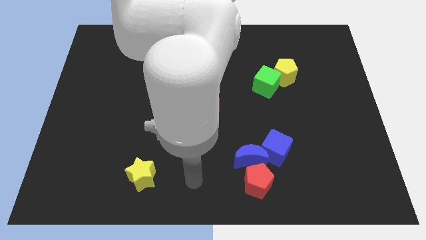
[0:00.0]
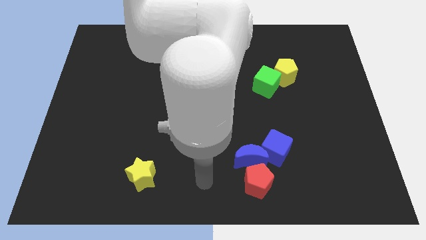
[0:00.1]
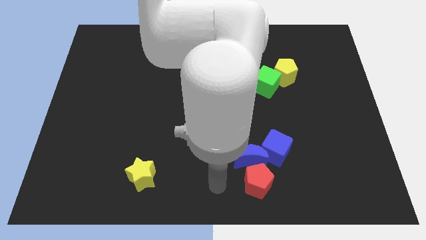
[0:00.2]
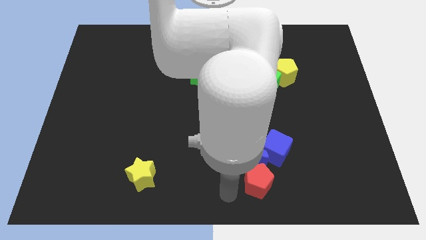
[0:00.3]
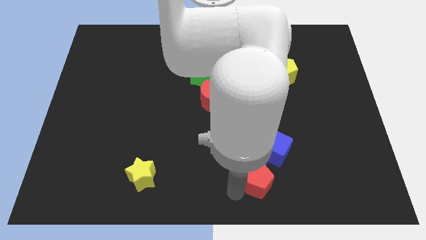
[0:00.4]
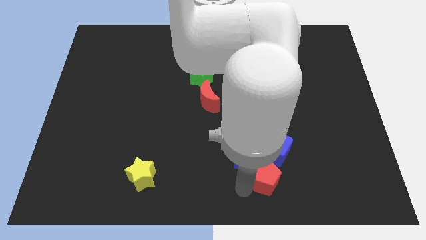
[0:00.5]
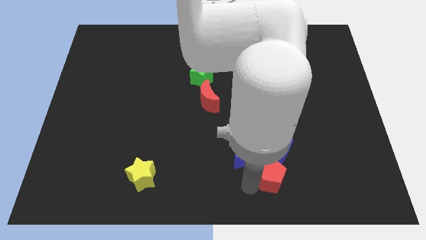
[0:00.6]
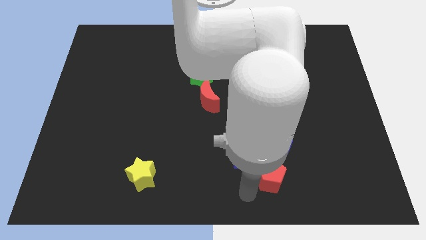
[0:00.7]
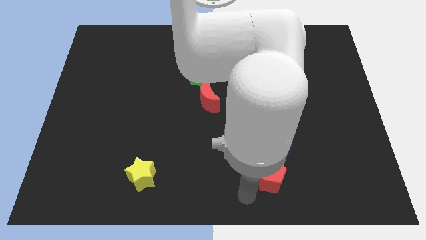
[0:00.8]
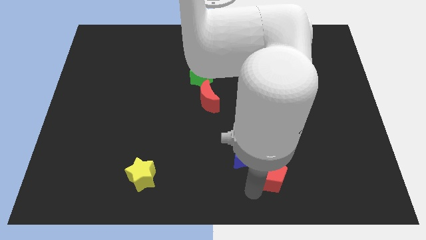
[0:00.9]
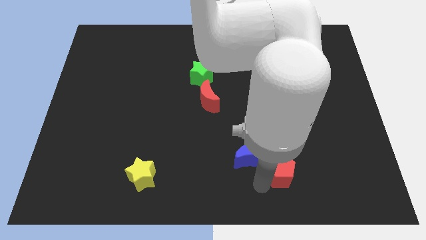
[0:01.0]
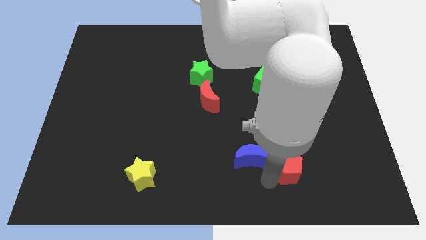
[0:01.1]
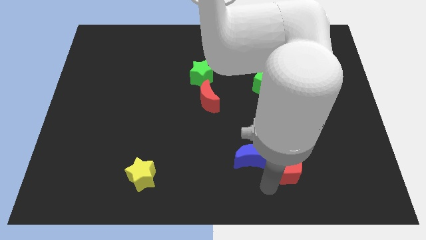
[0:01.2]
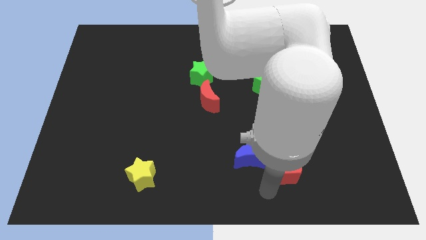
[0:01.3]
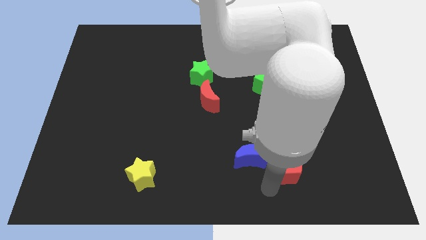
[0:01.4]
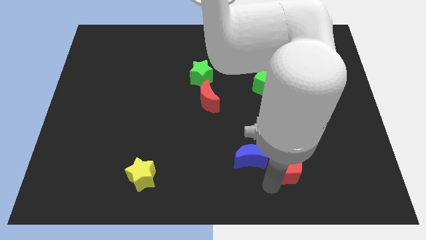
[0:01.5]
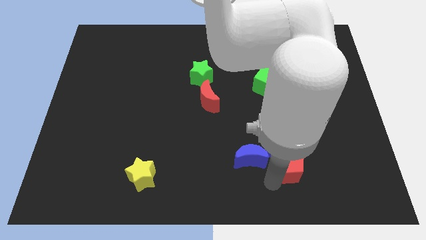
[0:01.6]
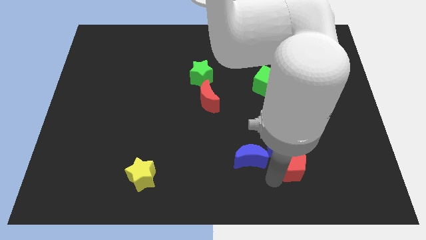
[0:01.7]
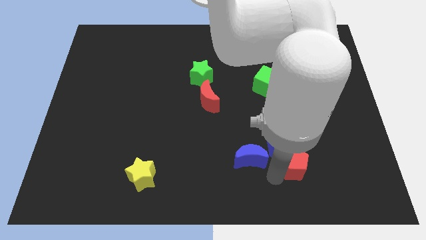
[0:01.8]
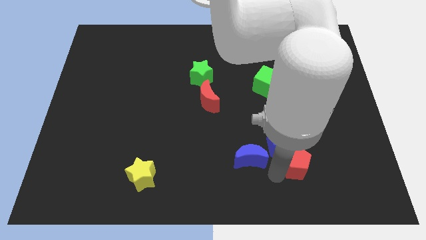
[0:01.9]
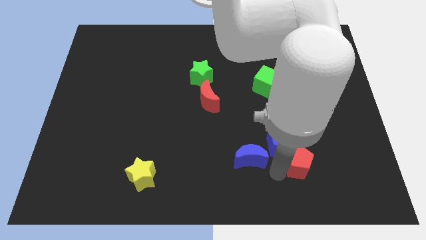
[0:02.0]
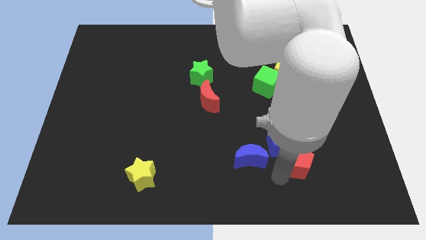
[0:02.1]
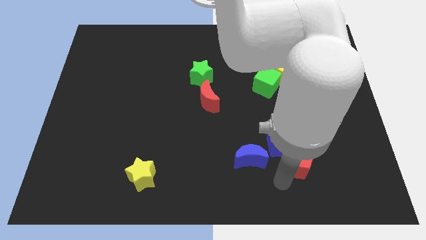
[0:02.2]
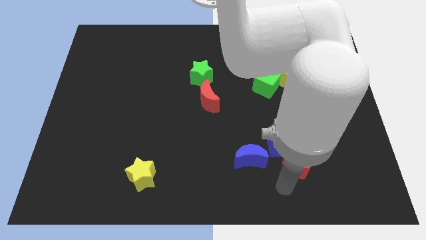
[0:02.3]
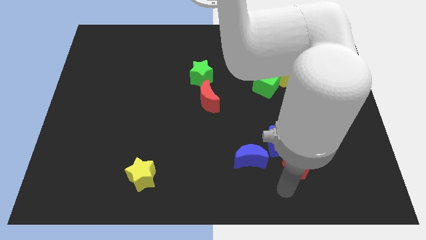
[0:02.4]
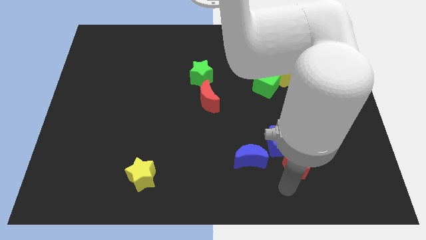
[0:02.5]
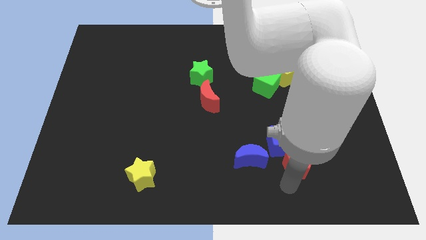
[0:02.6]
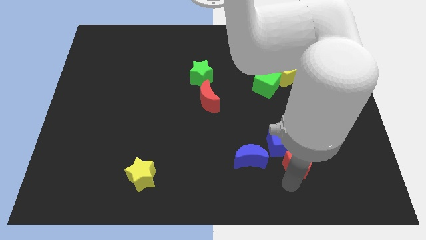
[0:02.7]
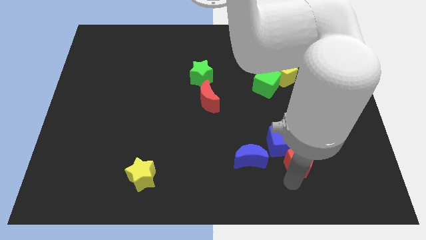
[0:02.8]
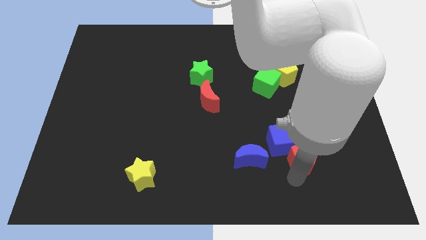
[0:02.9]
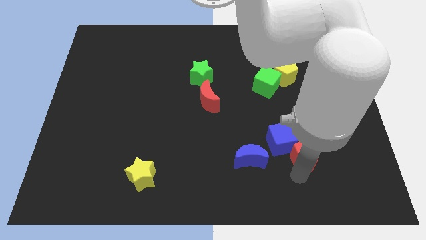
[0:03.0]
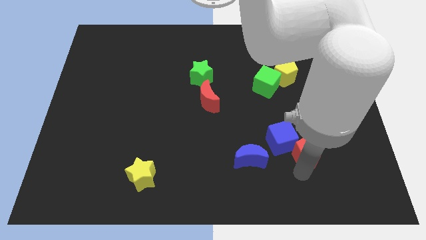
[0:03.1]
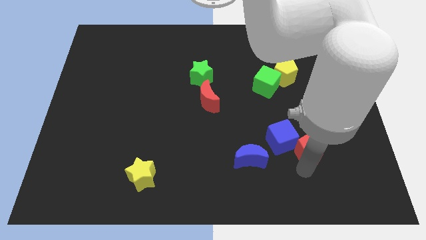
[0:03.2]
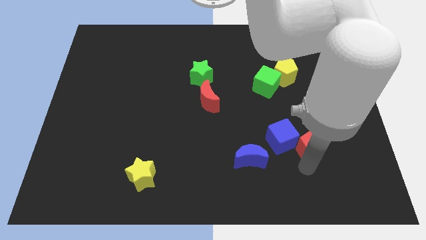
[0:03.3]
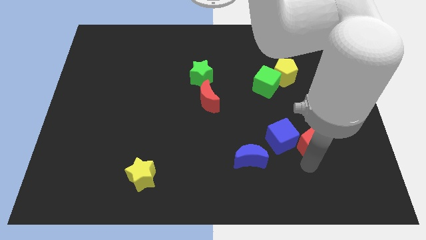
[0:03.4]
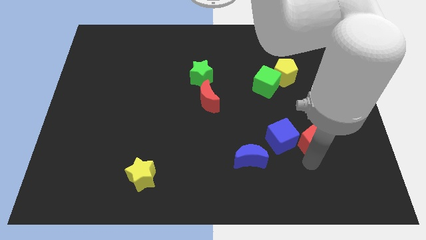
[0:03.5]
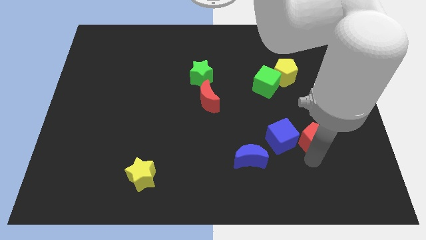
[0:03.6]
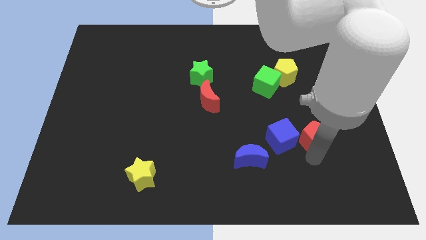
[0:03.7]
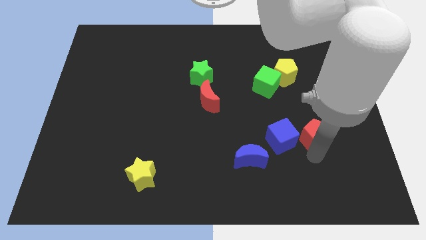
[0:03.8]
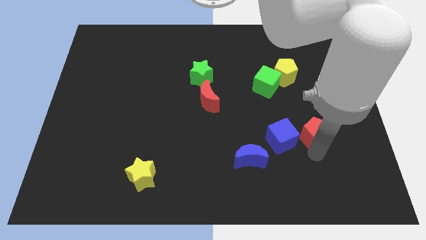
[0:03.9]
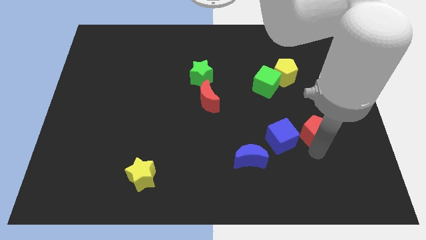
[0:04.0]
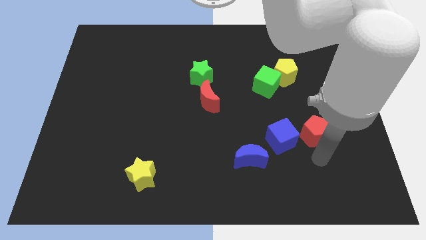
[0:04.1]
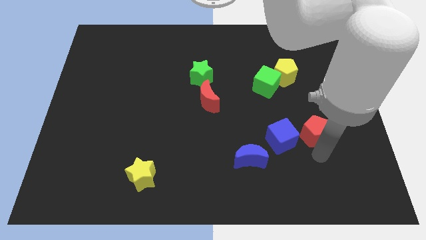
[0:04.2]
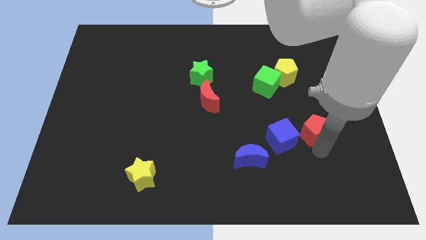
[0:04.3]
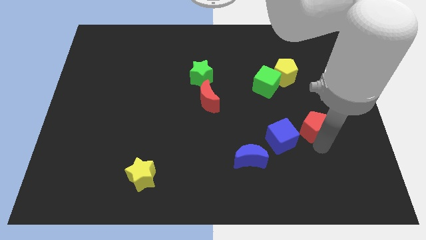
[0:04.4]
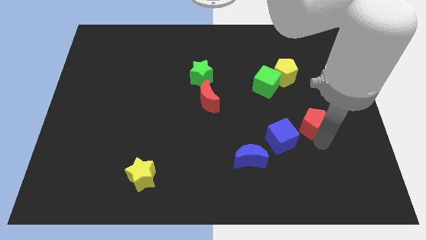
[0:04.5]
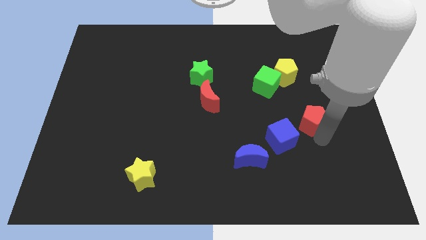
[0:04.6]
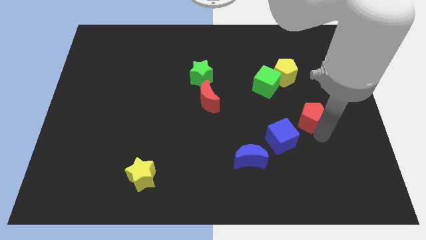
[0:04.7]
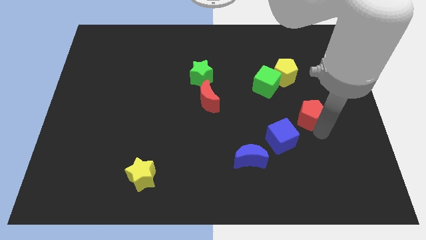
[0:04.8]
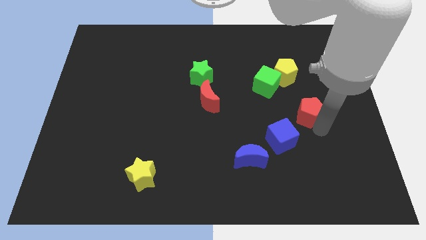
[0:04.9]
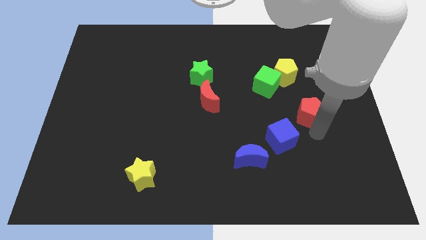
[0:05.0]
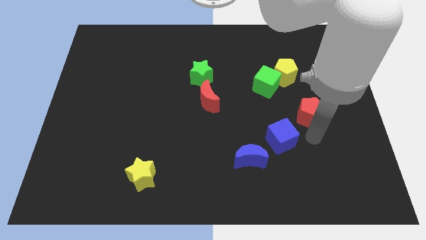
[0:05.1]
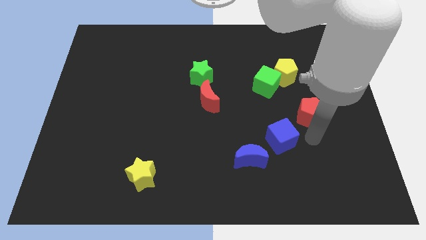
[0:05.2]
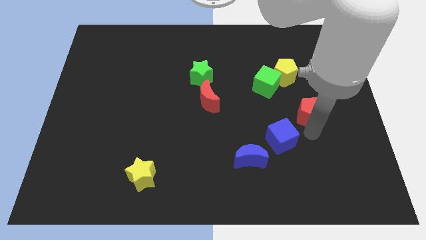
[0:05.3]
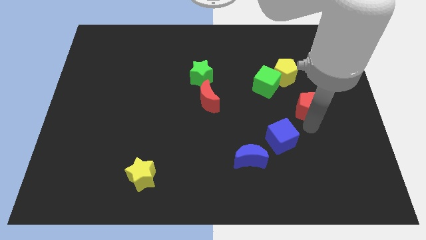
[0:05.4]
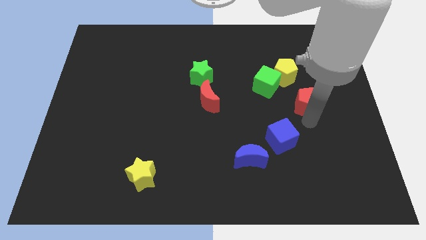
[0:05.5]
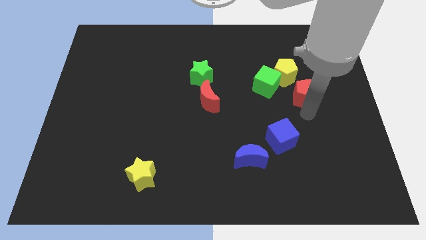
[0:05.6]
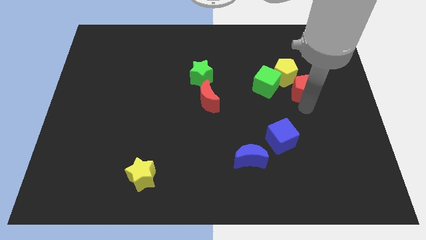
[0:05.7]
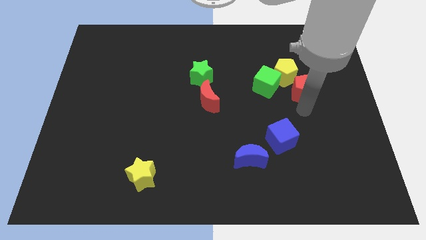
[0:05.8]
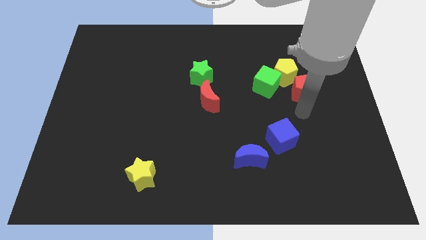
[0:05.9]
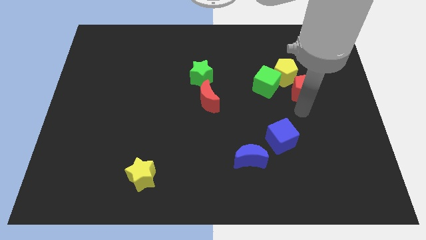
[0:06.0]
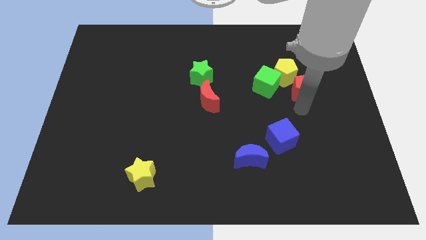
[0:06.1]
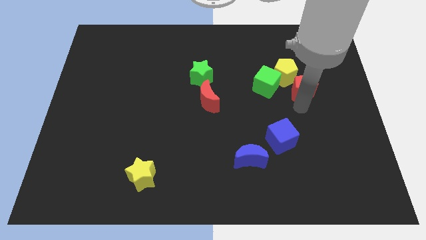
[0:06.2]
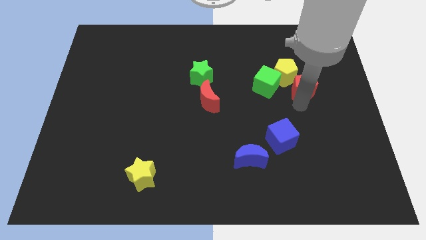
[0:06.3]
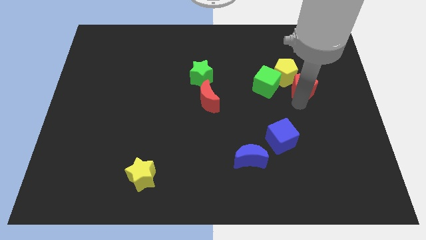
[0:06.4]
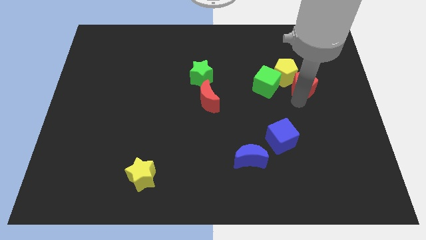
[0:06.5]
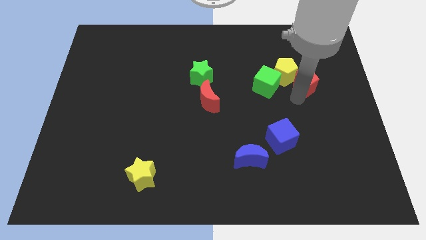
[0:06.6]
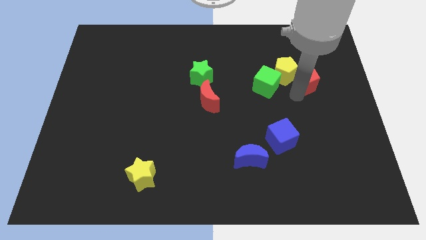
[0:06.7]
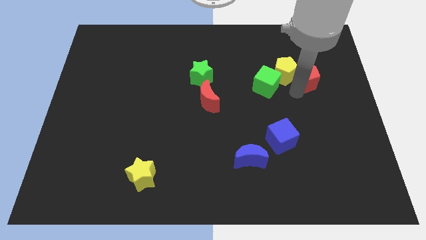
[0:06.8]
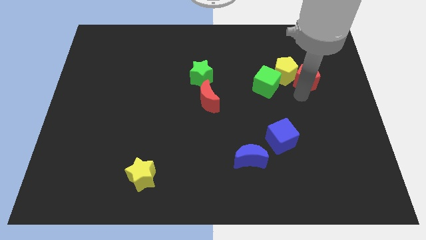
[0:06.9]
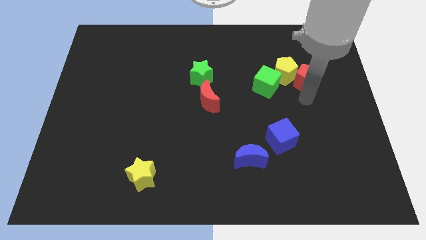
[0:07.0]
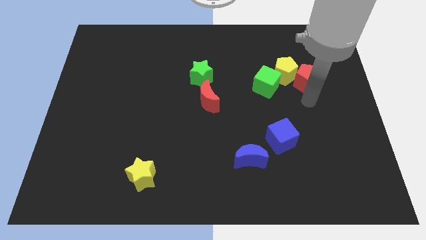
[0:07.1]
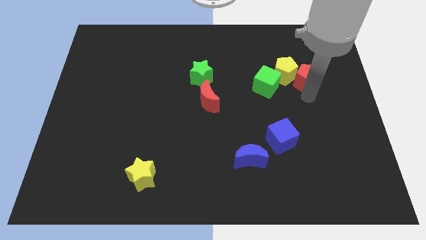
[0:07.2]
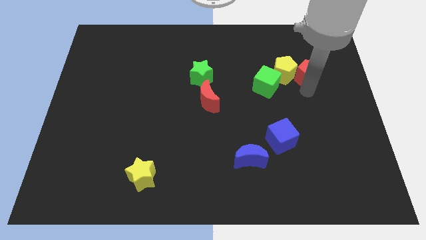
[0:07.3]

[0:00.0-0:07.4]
move the red pentagon to the top right side of the yellow pentagon

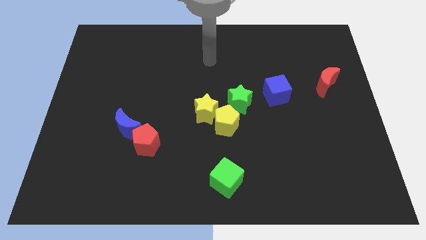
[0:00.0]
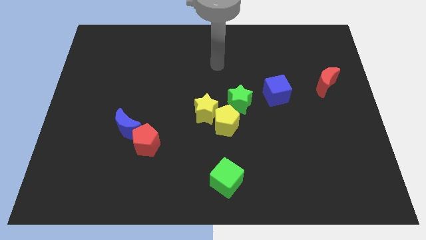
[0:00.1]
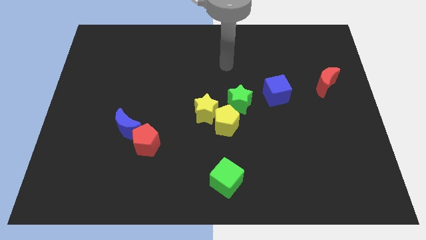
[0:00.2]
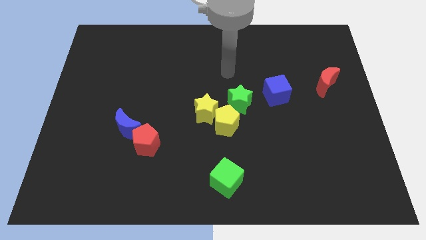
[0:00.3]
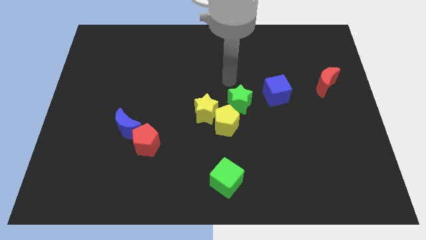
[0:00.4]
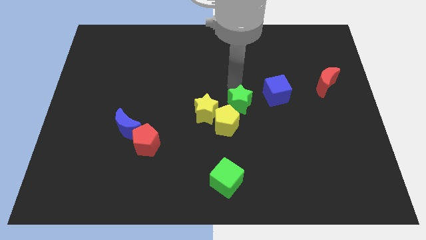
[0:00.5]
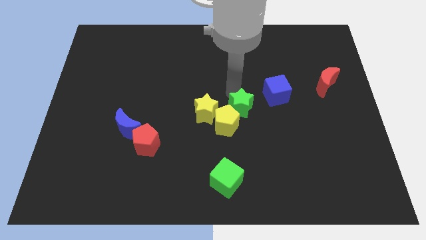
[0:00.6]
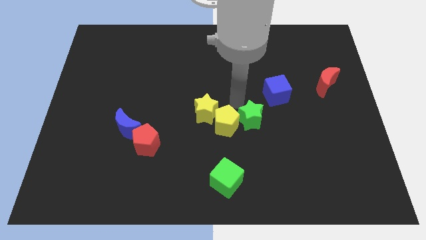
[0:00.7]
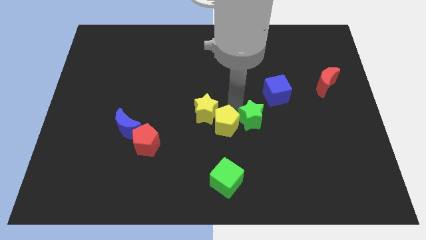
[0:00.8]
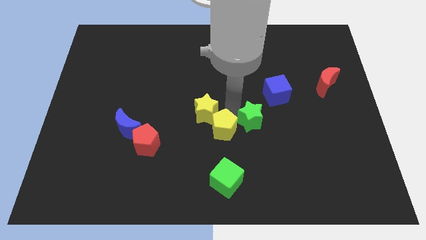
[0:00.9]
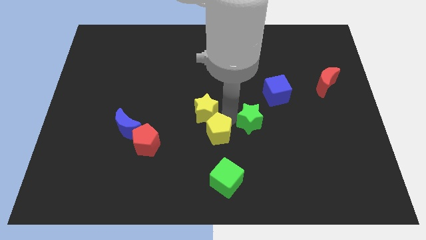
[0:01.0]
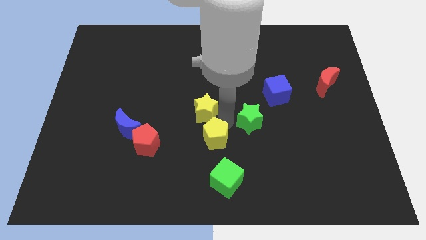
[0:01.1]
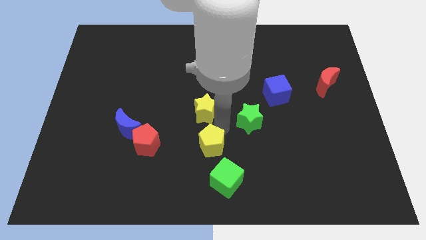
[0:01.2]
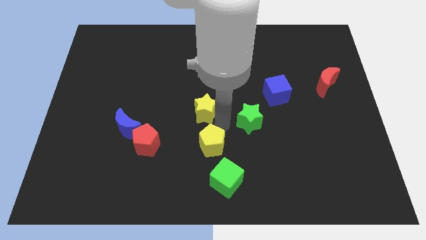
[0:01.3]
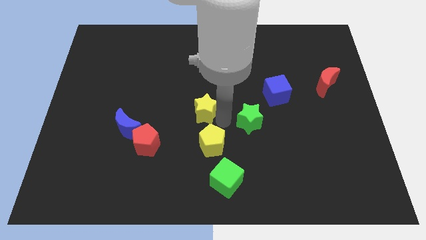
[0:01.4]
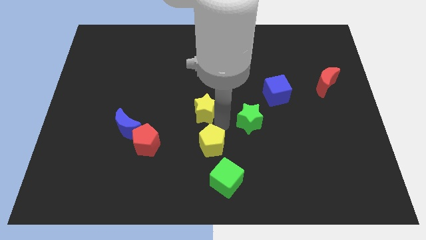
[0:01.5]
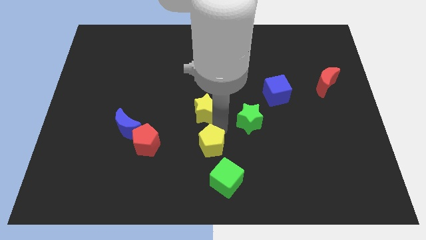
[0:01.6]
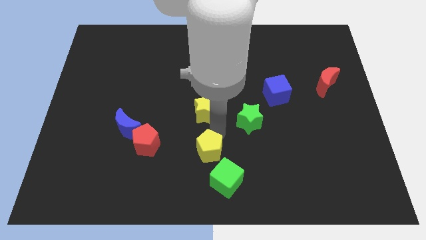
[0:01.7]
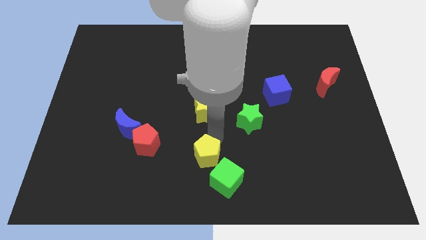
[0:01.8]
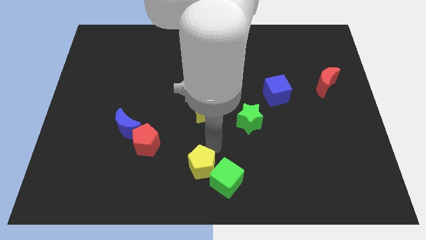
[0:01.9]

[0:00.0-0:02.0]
move the yellow pentagon to the left of the green cube
